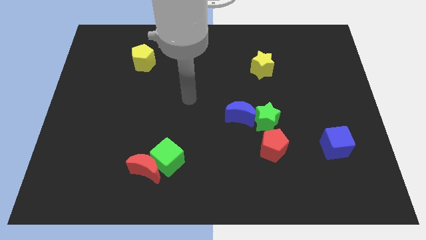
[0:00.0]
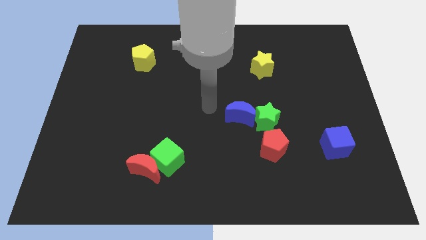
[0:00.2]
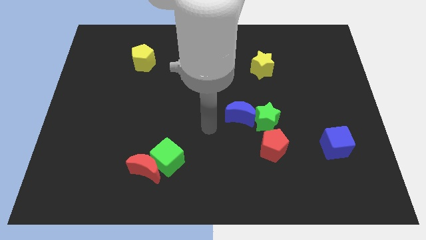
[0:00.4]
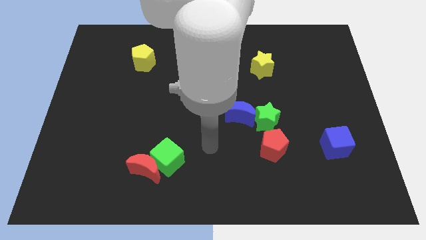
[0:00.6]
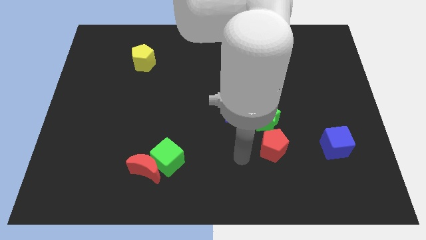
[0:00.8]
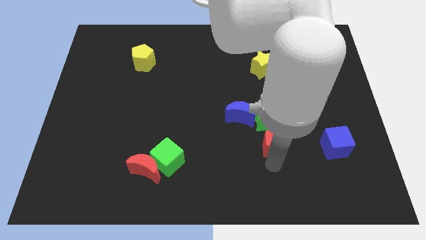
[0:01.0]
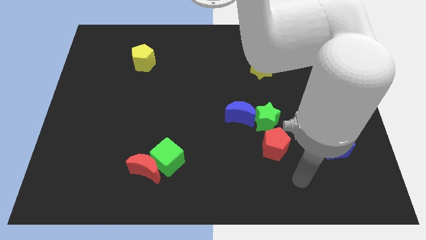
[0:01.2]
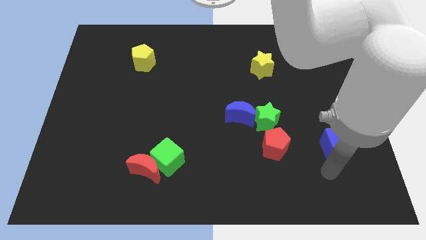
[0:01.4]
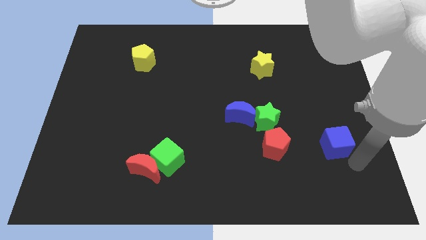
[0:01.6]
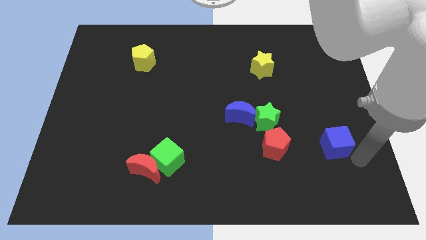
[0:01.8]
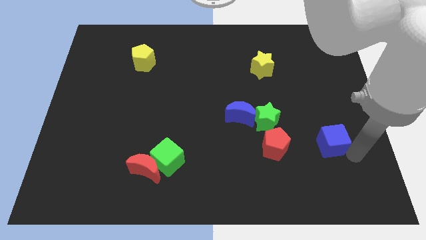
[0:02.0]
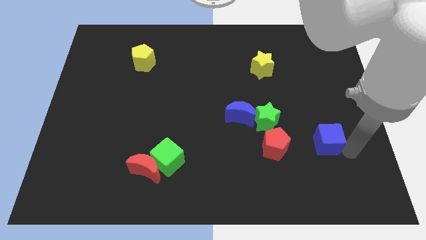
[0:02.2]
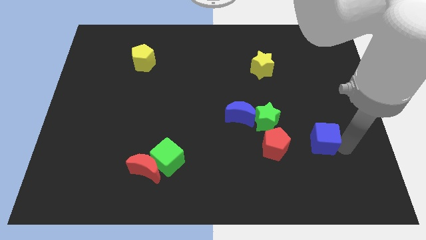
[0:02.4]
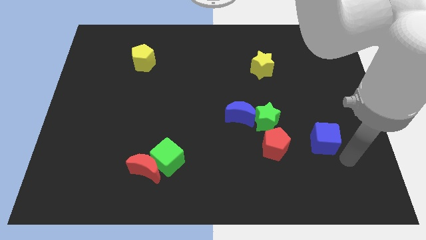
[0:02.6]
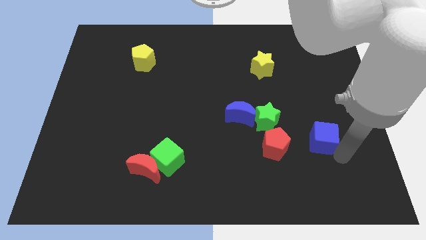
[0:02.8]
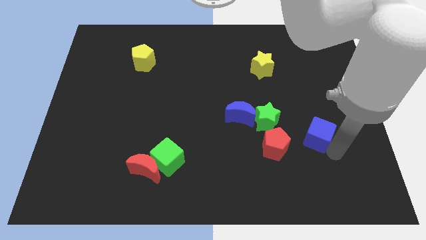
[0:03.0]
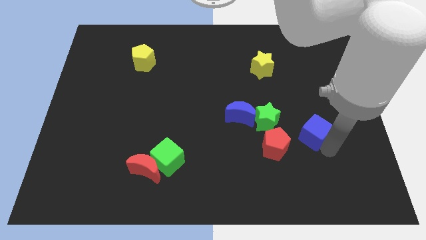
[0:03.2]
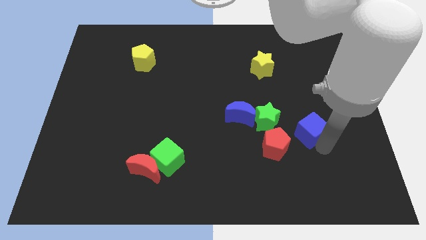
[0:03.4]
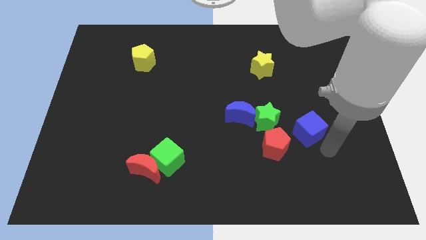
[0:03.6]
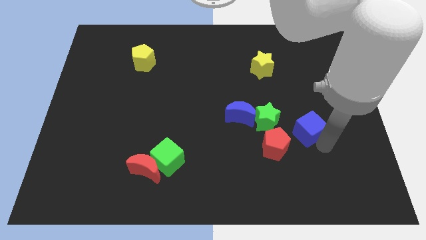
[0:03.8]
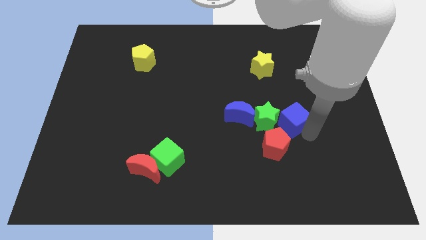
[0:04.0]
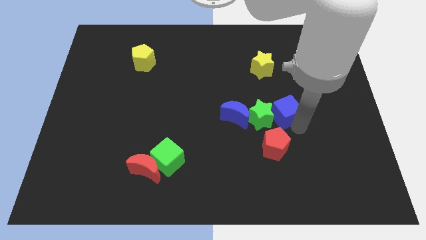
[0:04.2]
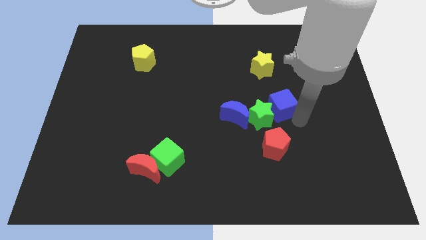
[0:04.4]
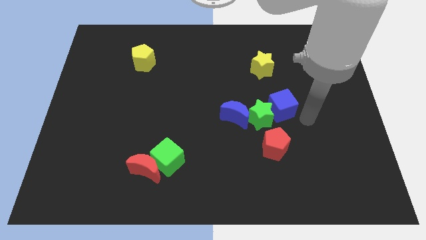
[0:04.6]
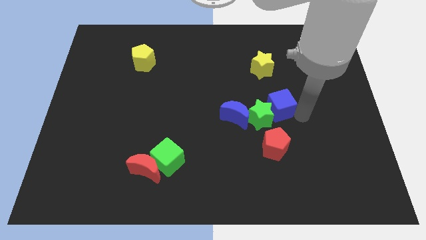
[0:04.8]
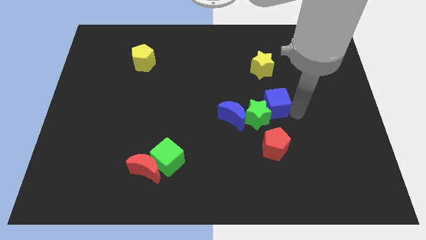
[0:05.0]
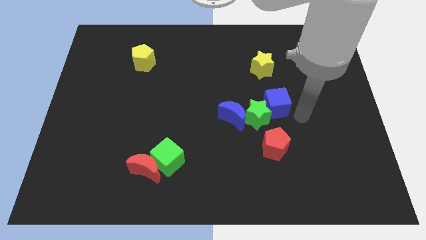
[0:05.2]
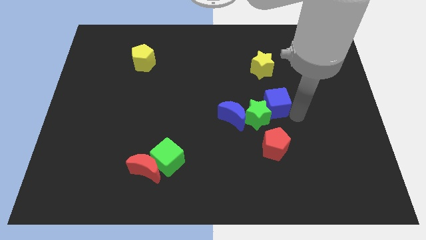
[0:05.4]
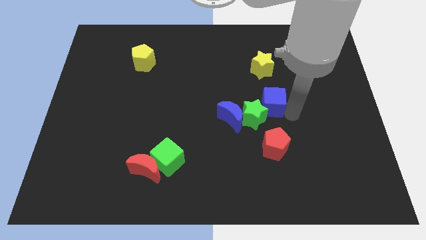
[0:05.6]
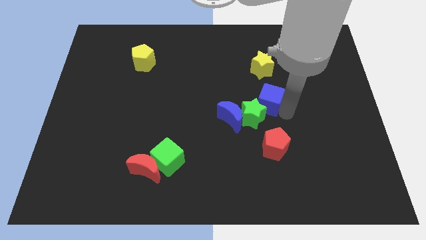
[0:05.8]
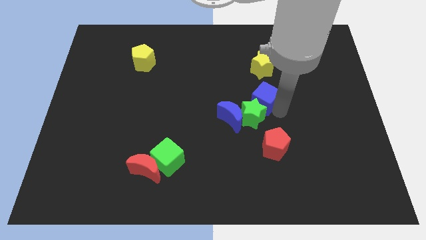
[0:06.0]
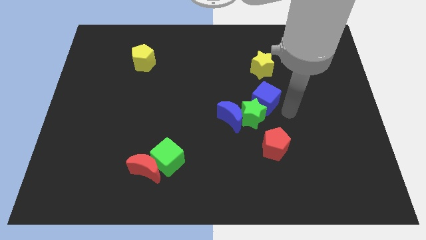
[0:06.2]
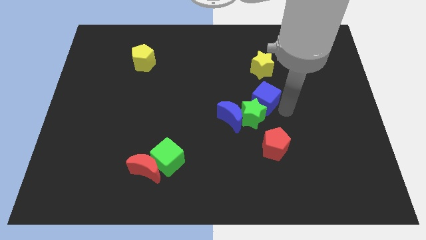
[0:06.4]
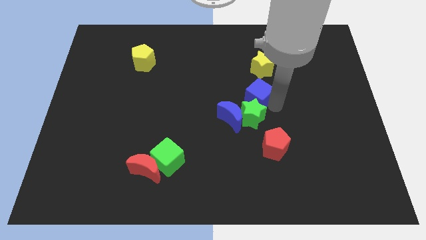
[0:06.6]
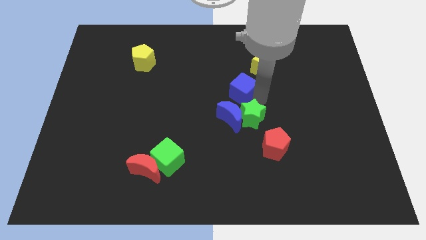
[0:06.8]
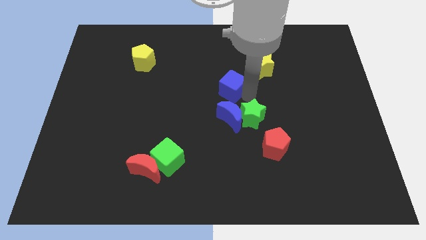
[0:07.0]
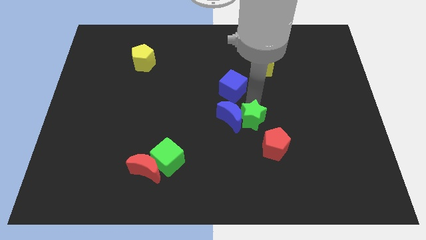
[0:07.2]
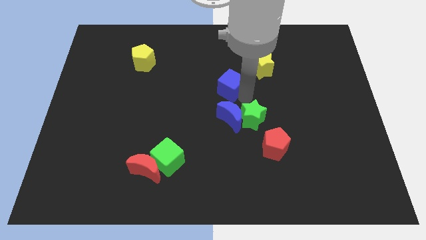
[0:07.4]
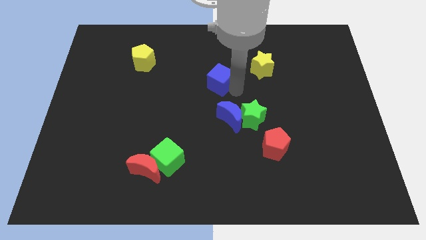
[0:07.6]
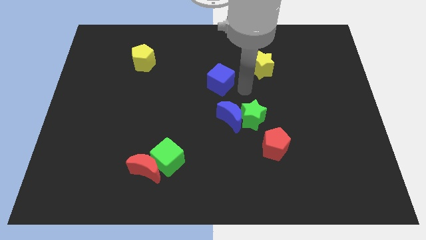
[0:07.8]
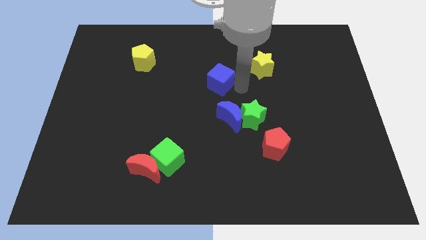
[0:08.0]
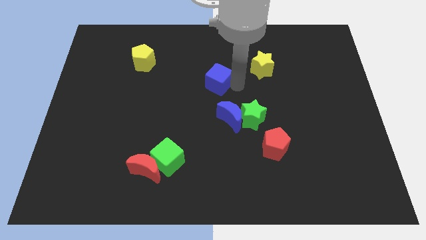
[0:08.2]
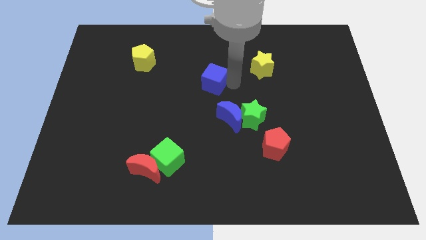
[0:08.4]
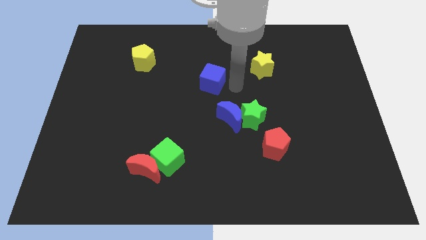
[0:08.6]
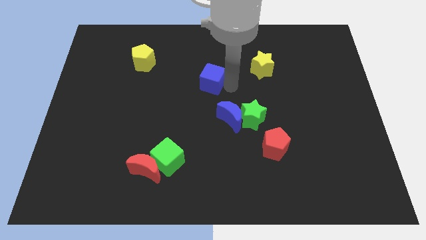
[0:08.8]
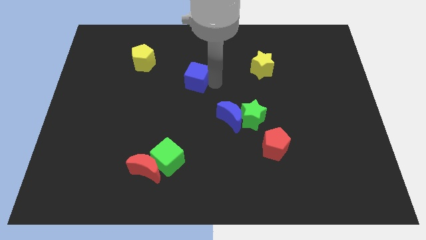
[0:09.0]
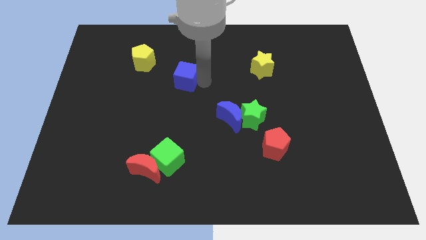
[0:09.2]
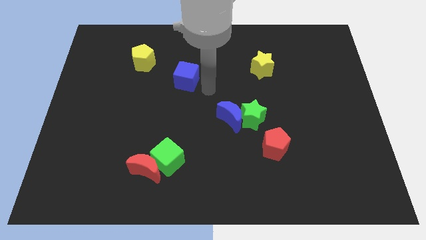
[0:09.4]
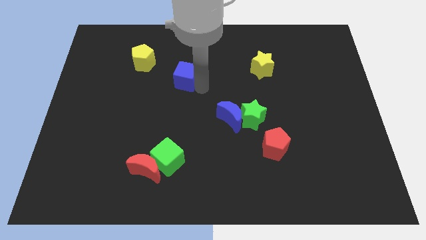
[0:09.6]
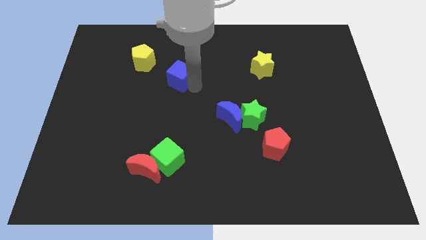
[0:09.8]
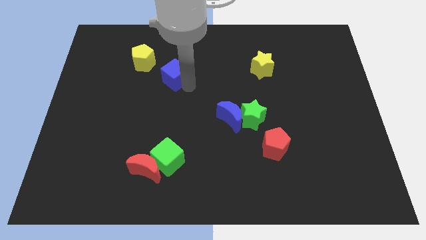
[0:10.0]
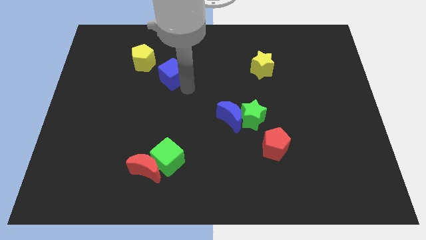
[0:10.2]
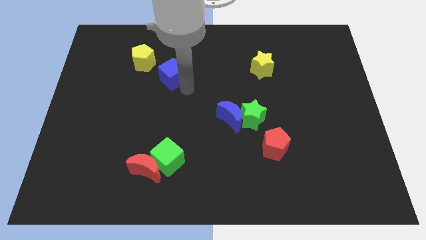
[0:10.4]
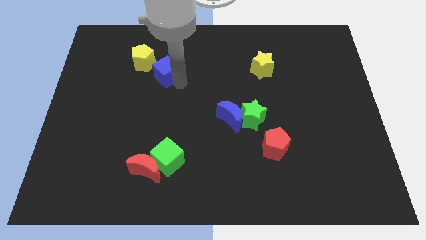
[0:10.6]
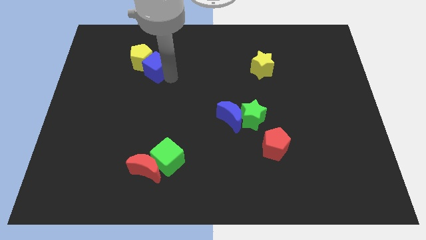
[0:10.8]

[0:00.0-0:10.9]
move the blue cube towards the yellow pentagon

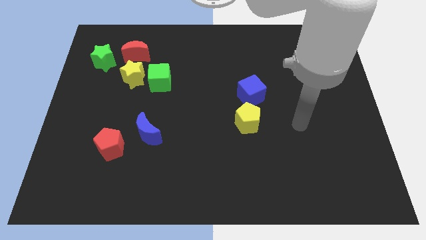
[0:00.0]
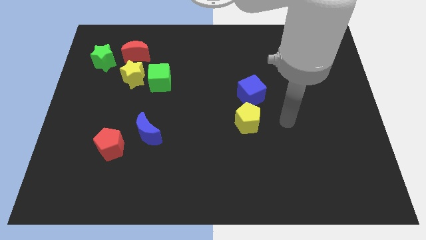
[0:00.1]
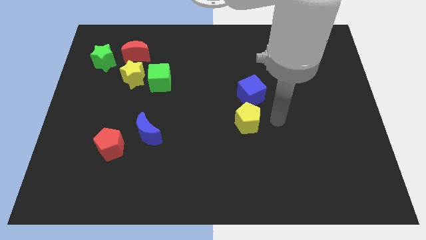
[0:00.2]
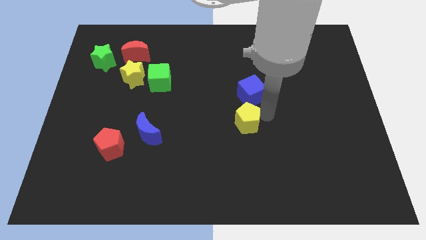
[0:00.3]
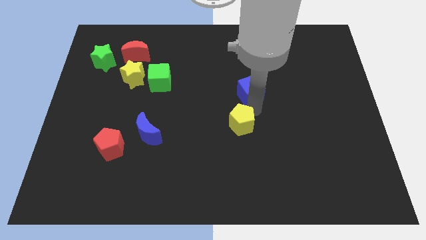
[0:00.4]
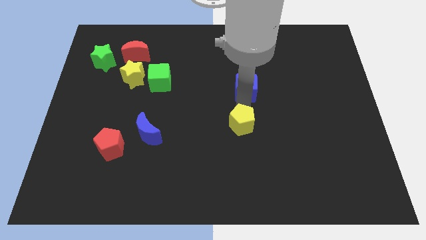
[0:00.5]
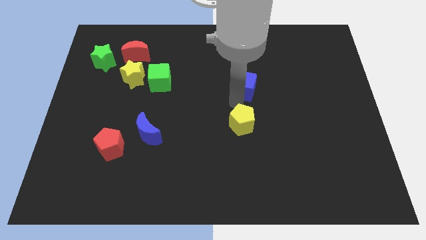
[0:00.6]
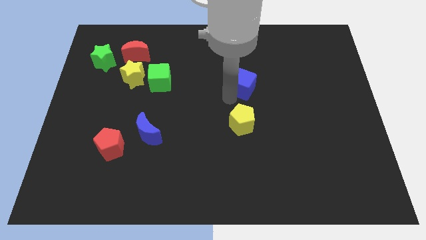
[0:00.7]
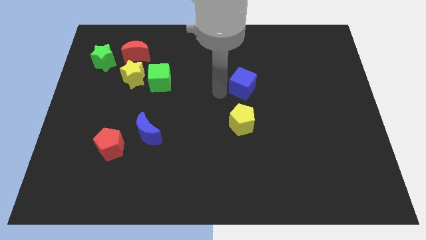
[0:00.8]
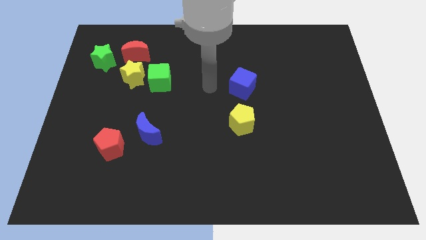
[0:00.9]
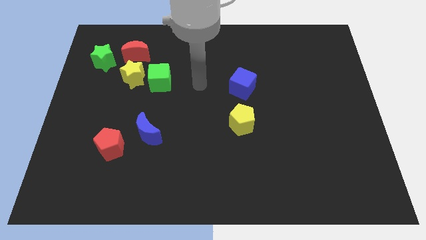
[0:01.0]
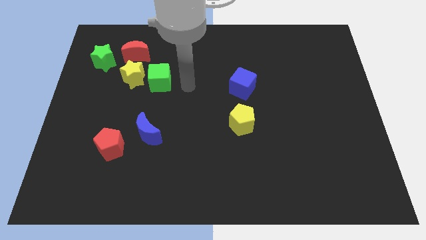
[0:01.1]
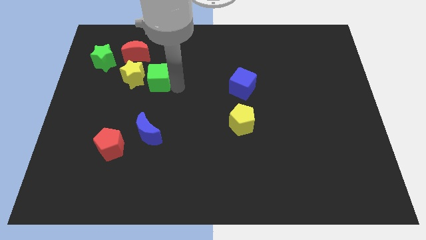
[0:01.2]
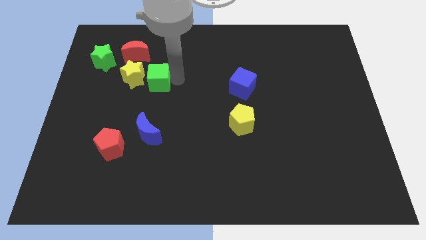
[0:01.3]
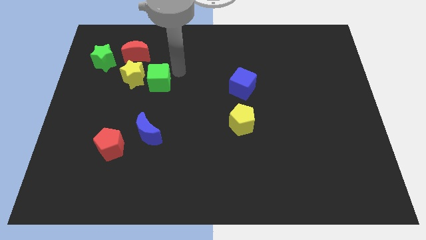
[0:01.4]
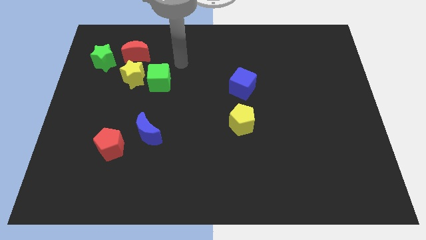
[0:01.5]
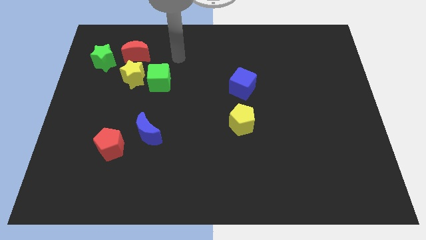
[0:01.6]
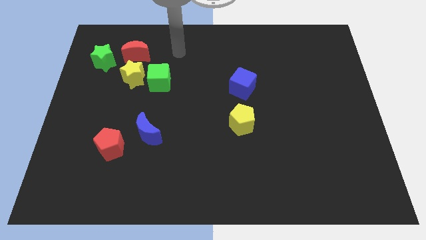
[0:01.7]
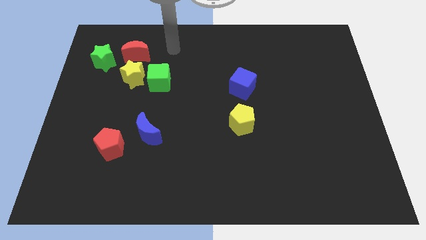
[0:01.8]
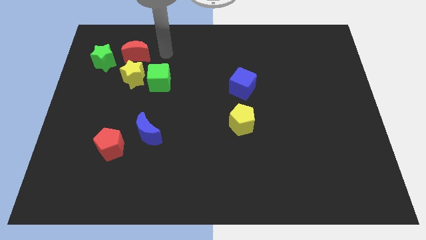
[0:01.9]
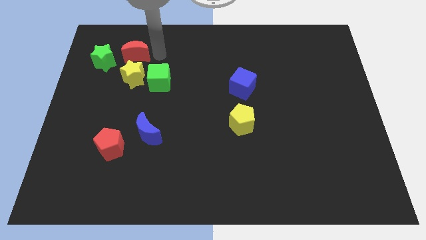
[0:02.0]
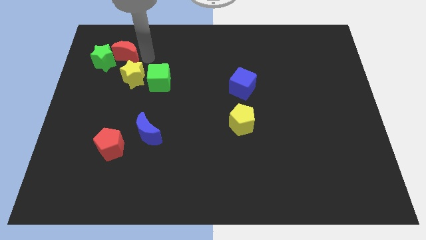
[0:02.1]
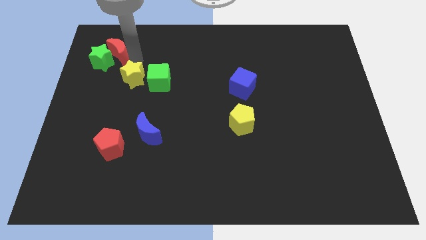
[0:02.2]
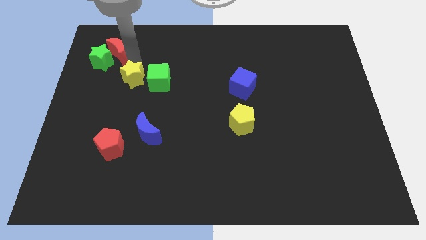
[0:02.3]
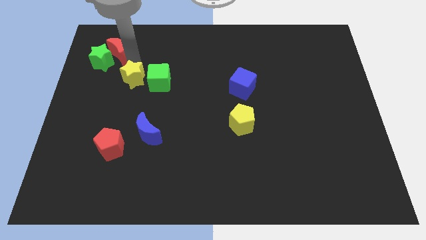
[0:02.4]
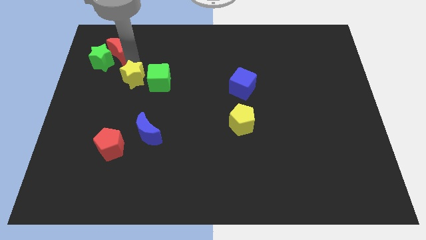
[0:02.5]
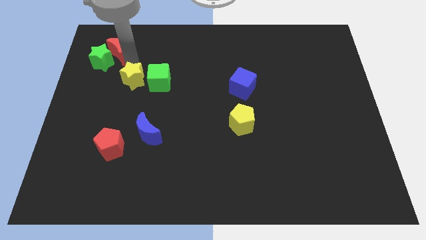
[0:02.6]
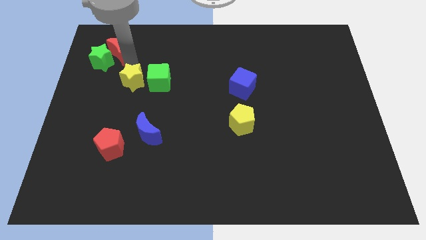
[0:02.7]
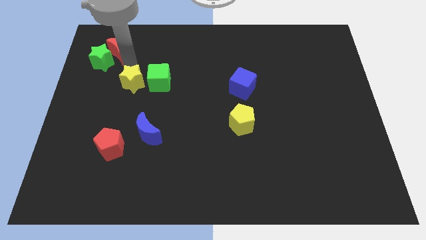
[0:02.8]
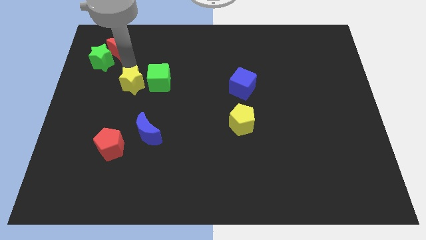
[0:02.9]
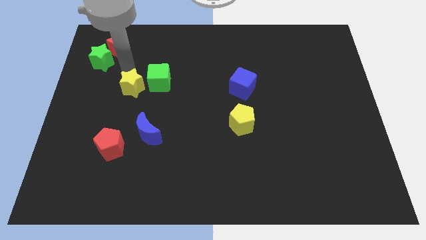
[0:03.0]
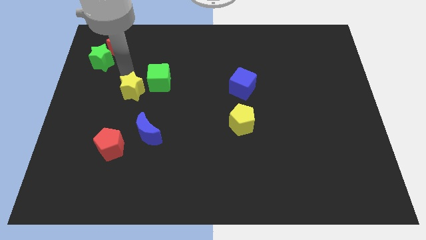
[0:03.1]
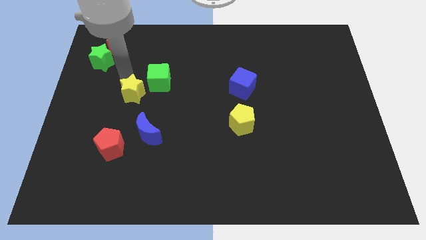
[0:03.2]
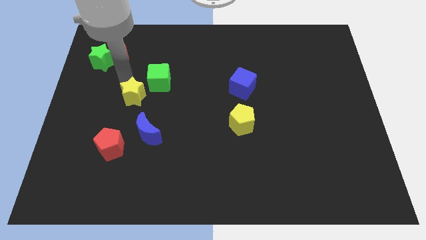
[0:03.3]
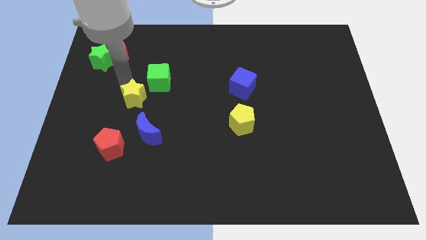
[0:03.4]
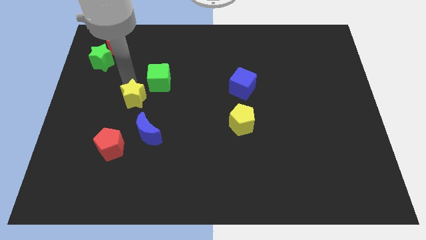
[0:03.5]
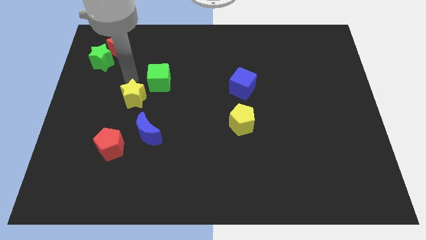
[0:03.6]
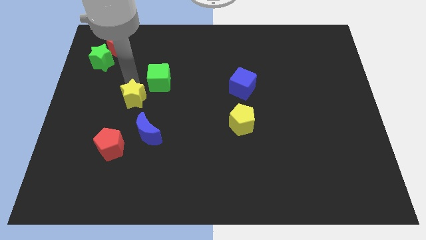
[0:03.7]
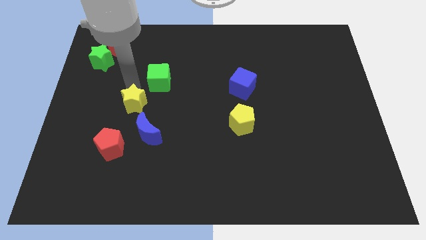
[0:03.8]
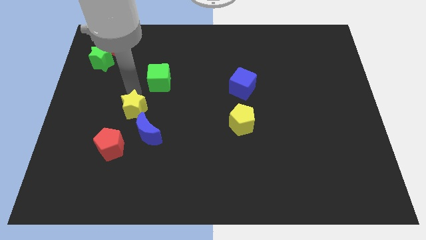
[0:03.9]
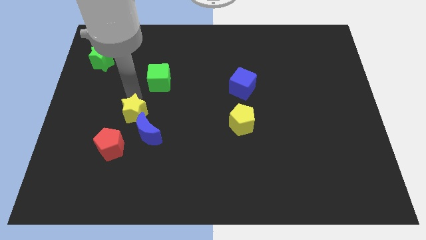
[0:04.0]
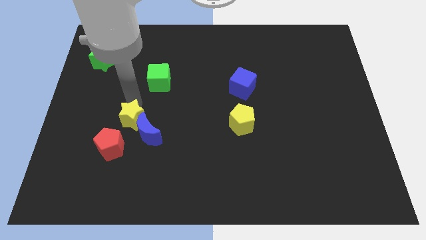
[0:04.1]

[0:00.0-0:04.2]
push the yellow star to the blue moon
